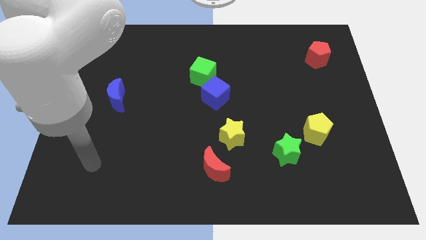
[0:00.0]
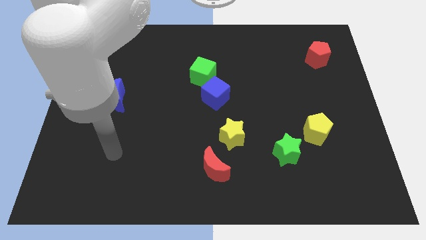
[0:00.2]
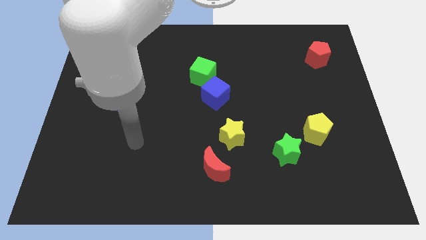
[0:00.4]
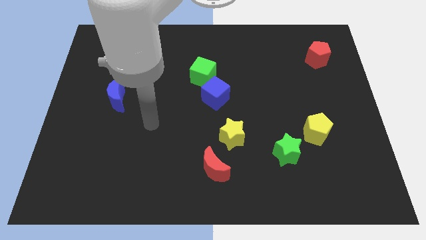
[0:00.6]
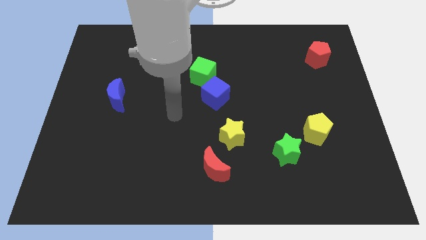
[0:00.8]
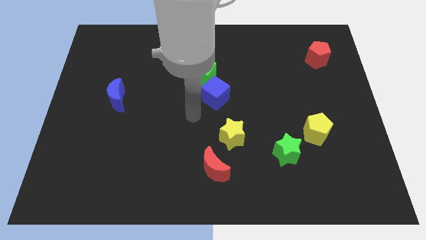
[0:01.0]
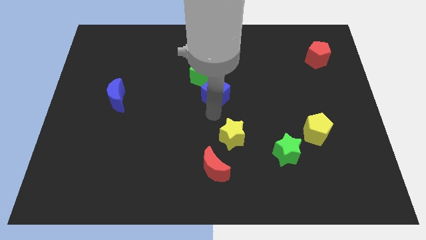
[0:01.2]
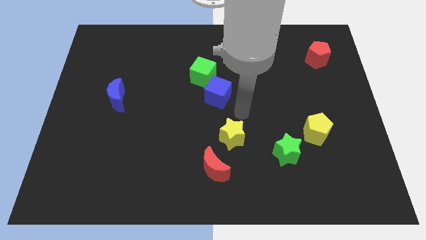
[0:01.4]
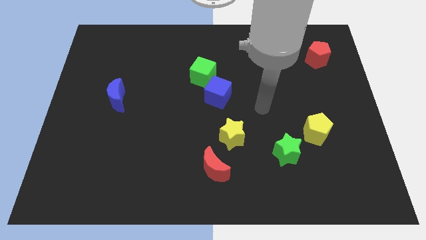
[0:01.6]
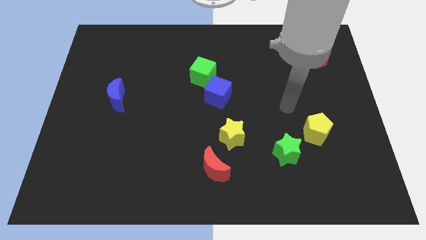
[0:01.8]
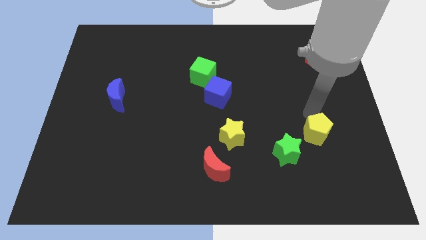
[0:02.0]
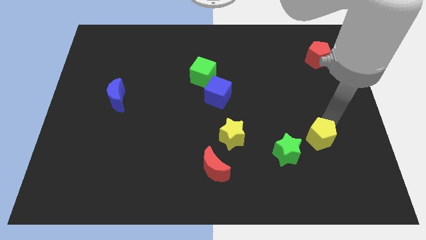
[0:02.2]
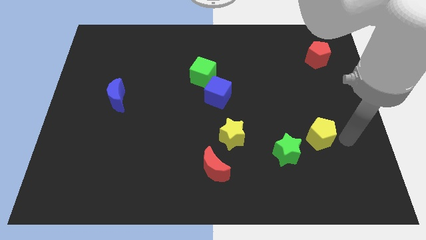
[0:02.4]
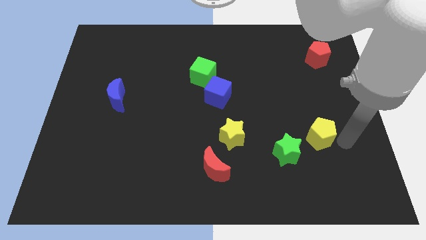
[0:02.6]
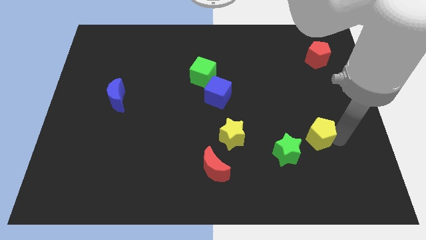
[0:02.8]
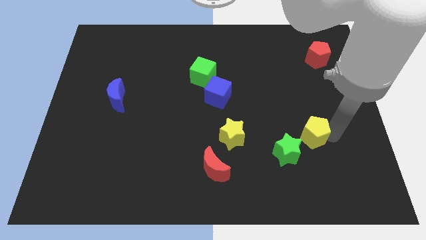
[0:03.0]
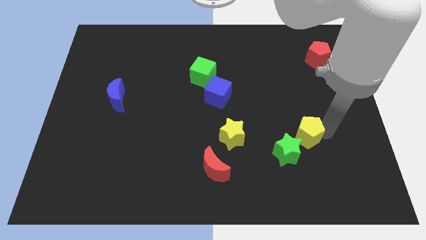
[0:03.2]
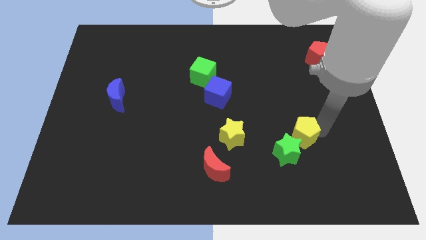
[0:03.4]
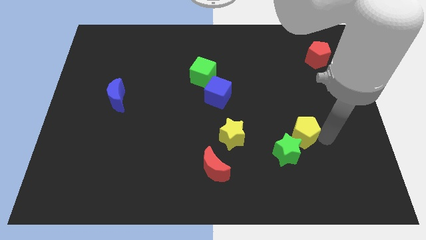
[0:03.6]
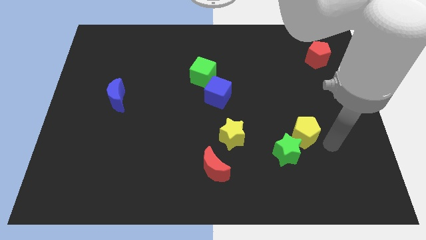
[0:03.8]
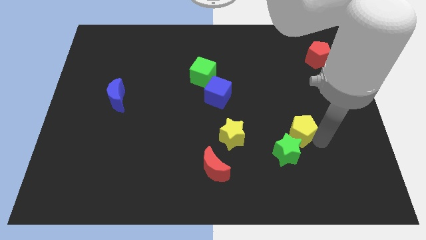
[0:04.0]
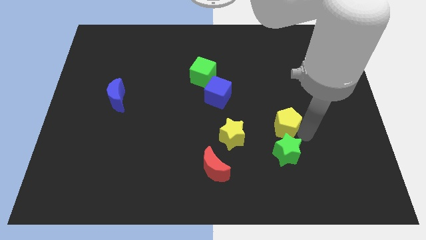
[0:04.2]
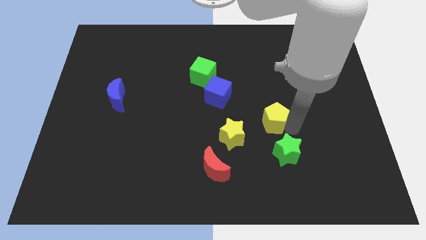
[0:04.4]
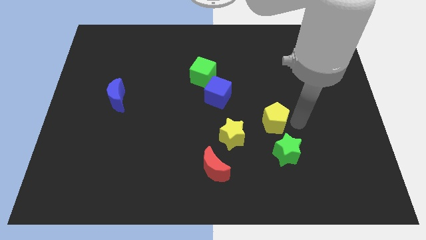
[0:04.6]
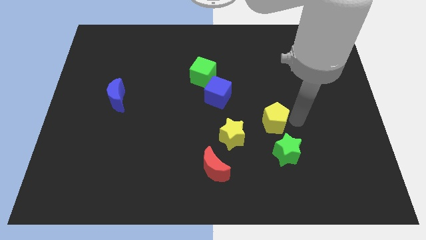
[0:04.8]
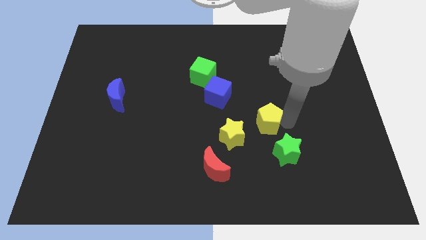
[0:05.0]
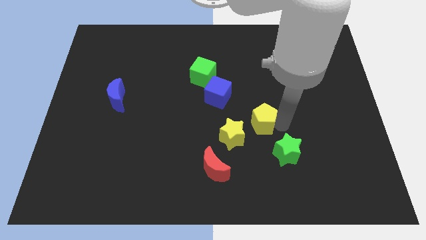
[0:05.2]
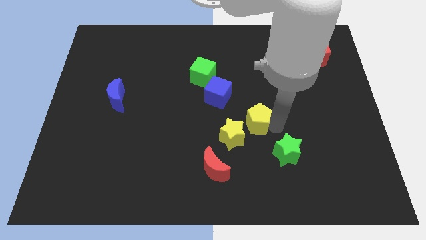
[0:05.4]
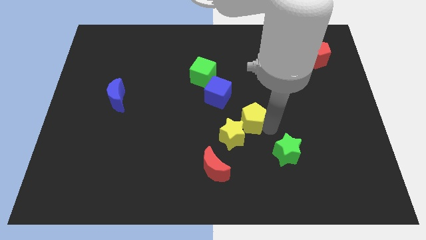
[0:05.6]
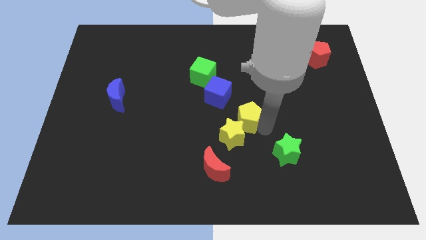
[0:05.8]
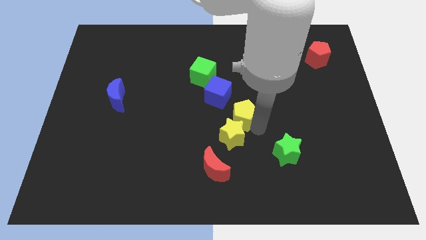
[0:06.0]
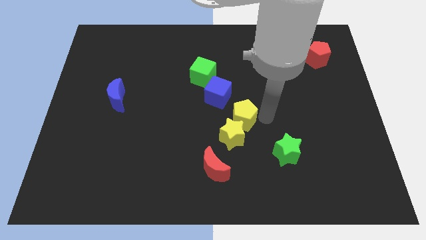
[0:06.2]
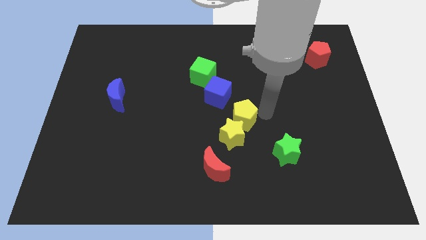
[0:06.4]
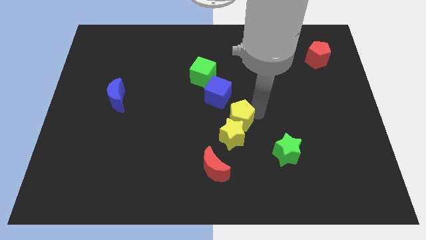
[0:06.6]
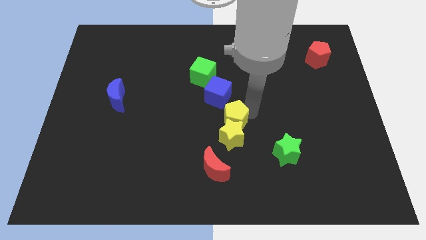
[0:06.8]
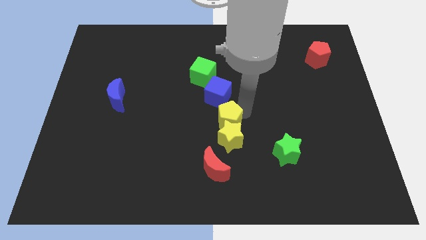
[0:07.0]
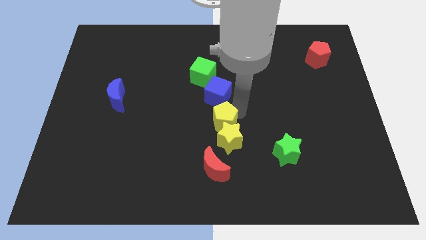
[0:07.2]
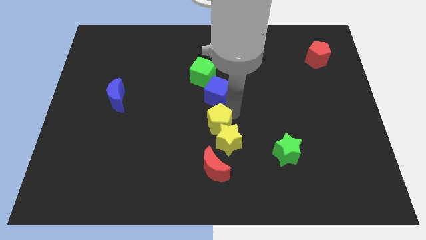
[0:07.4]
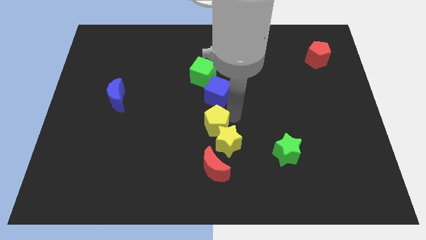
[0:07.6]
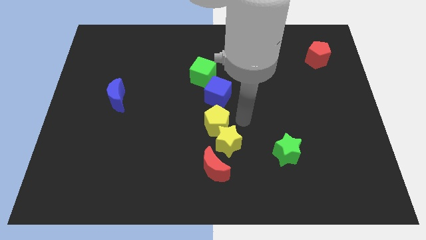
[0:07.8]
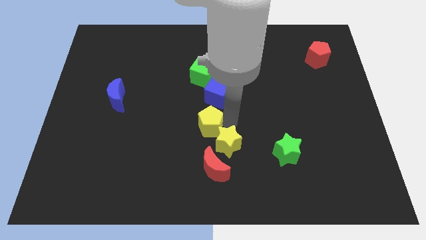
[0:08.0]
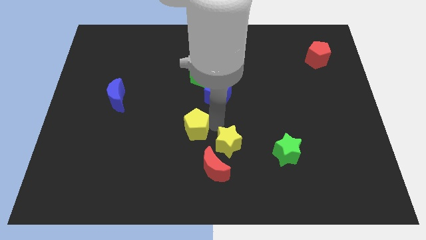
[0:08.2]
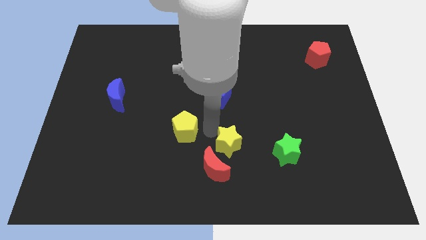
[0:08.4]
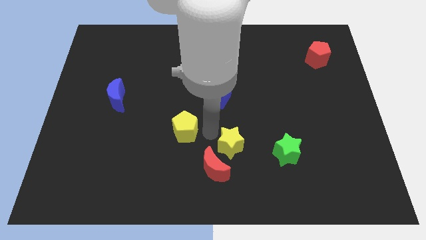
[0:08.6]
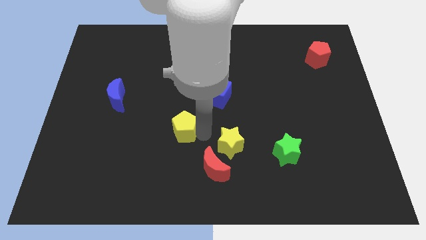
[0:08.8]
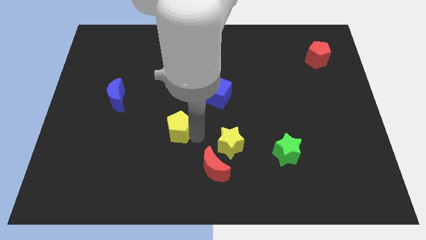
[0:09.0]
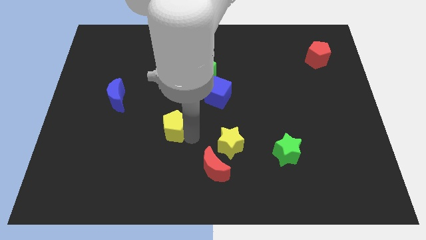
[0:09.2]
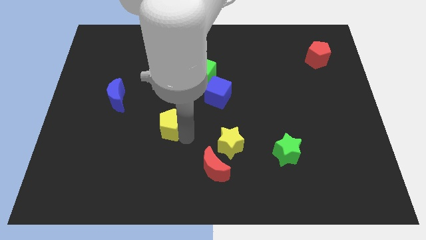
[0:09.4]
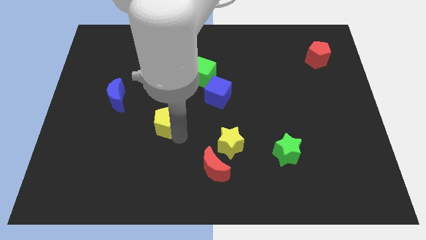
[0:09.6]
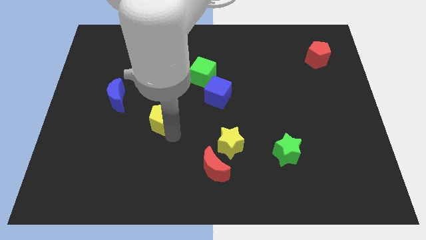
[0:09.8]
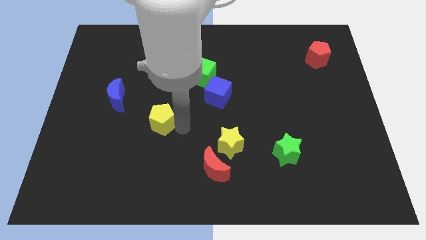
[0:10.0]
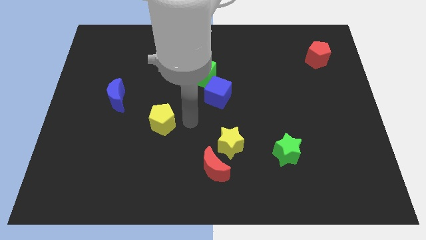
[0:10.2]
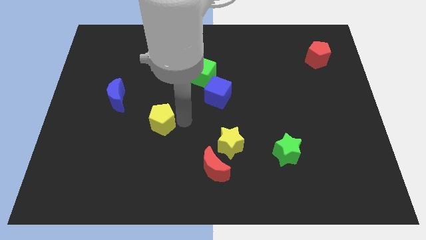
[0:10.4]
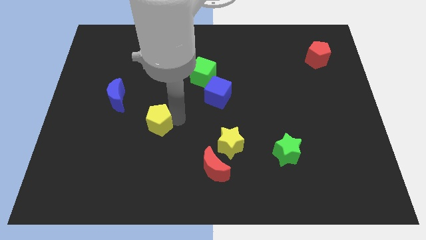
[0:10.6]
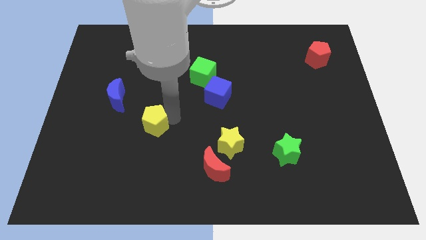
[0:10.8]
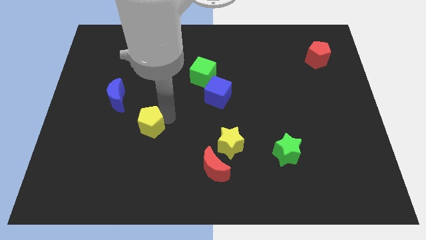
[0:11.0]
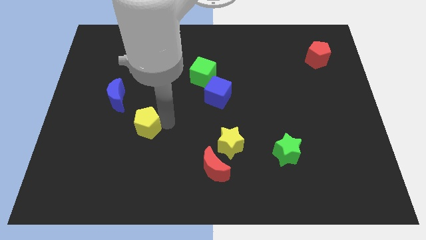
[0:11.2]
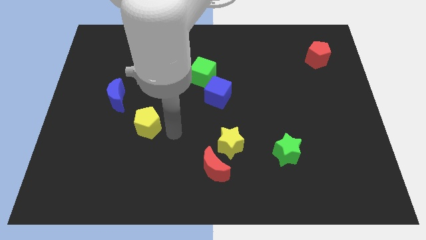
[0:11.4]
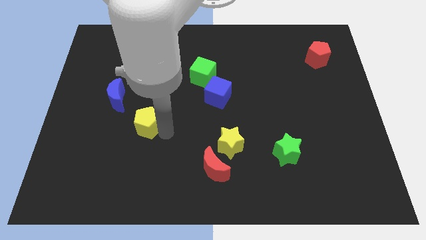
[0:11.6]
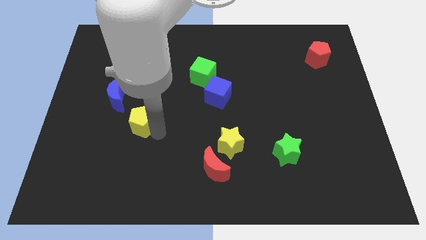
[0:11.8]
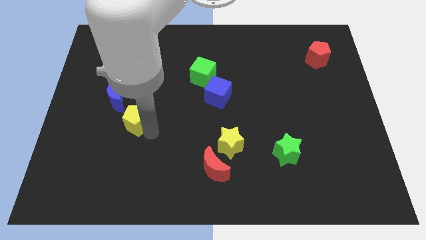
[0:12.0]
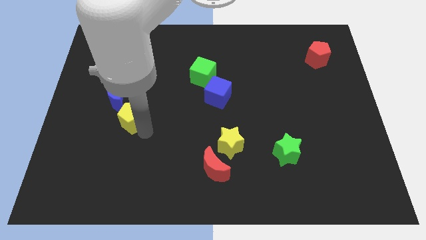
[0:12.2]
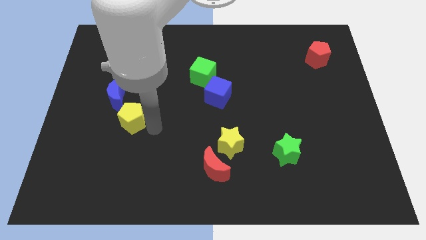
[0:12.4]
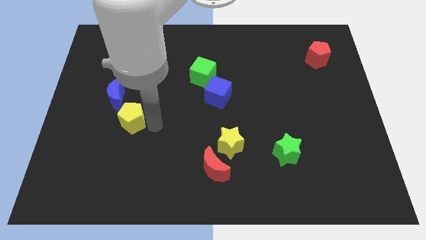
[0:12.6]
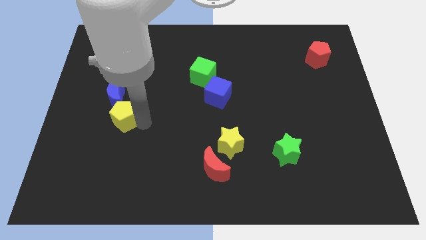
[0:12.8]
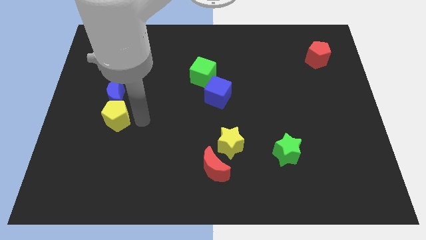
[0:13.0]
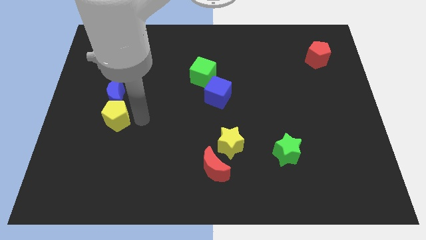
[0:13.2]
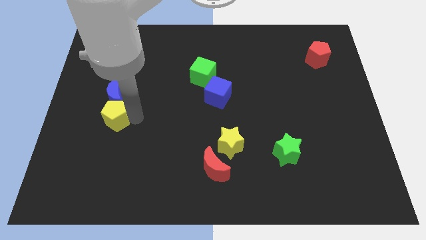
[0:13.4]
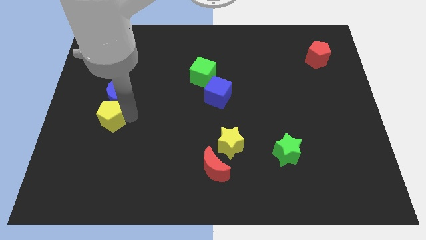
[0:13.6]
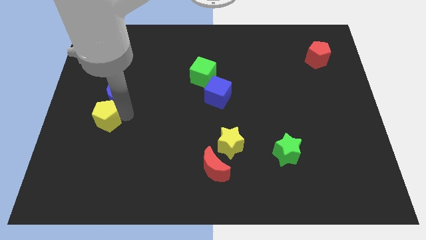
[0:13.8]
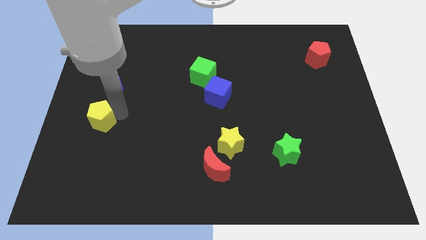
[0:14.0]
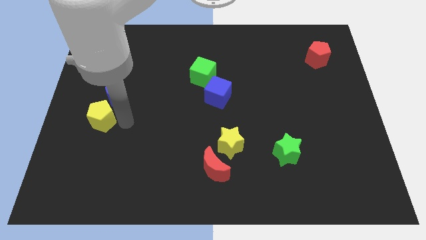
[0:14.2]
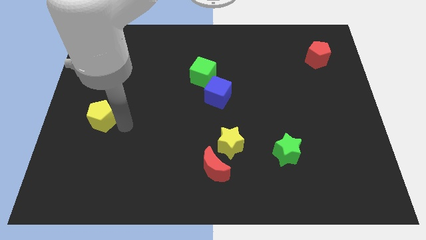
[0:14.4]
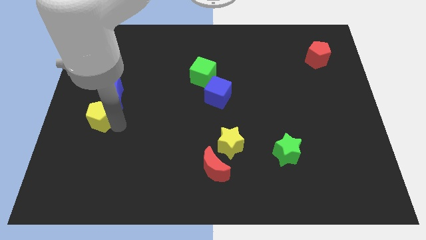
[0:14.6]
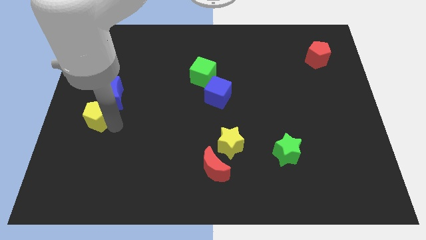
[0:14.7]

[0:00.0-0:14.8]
slide the yellow pentagon to the left side of the board
